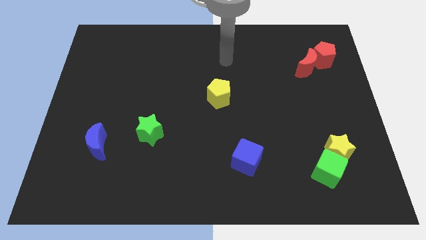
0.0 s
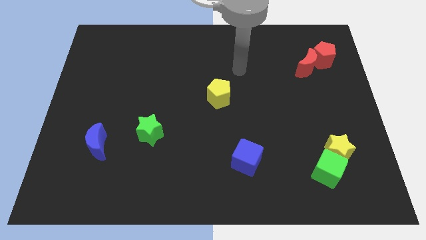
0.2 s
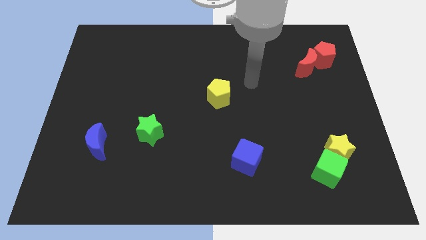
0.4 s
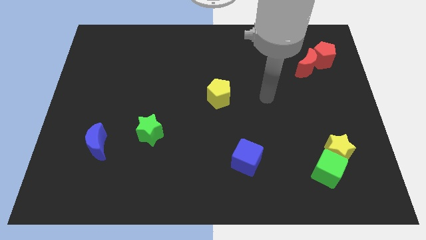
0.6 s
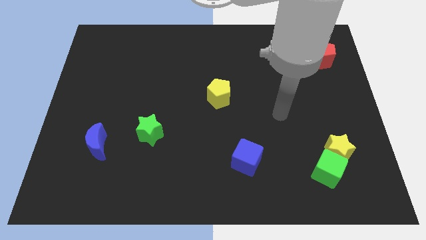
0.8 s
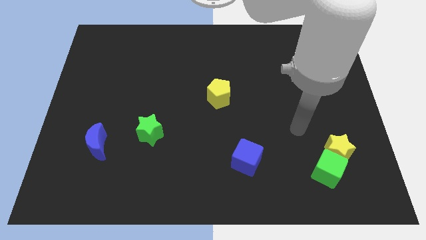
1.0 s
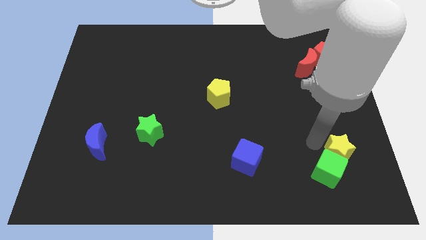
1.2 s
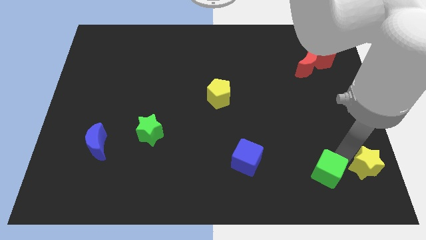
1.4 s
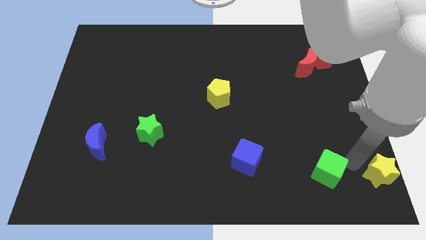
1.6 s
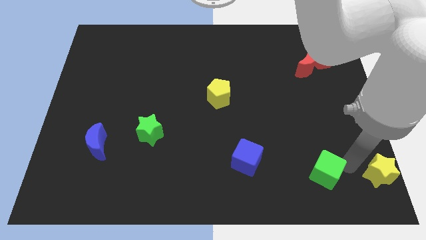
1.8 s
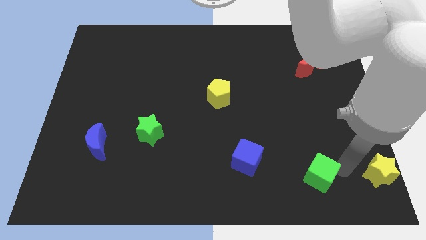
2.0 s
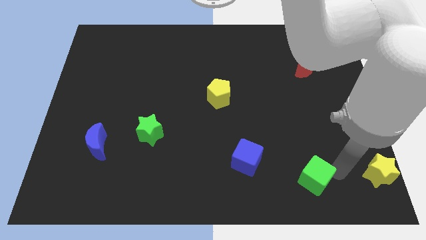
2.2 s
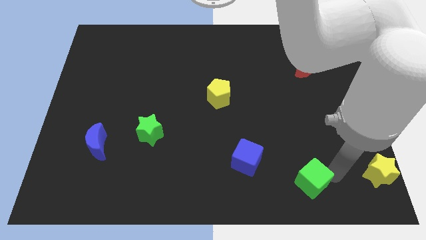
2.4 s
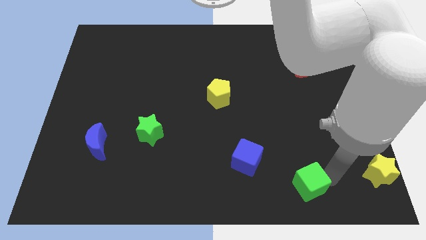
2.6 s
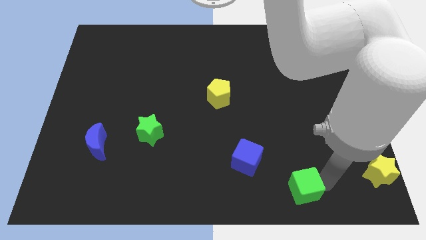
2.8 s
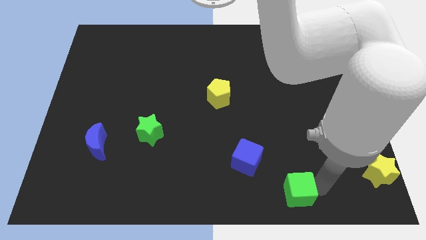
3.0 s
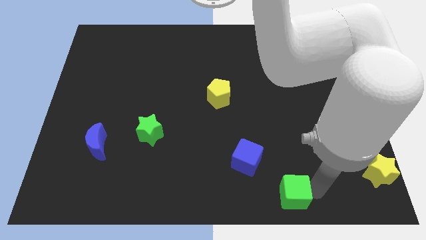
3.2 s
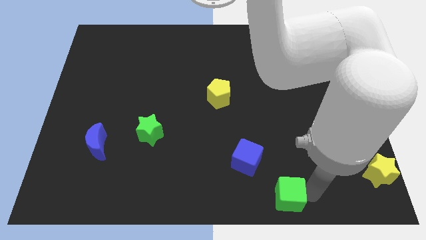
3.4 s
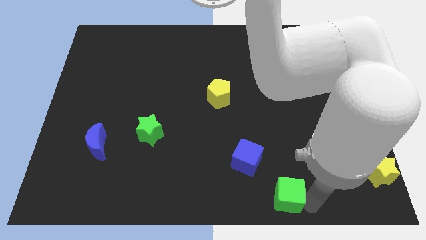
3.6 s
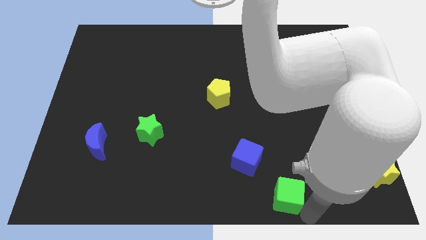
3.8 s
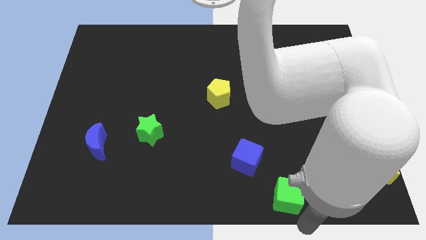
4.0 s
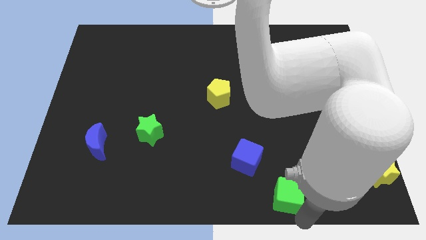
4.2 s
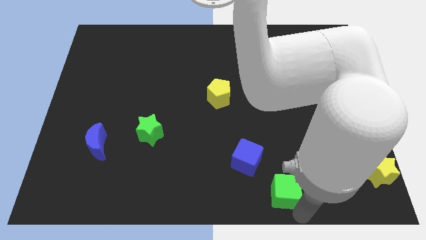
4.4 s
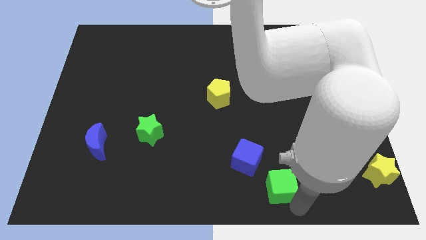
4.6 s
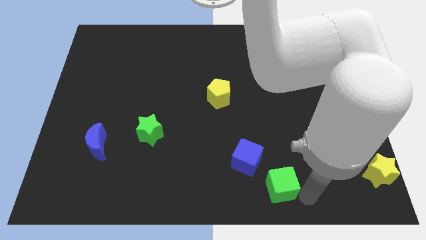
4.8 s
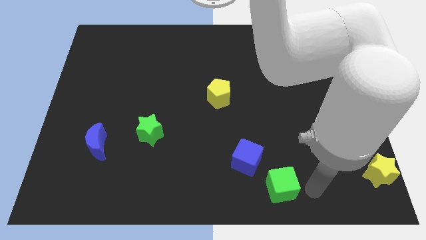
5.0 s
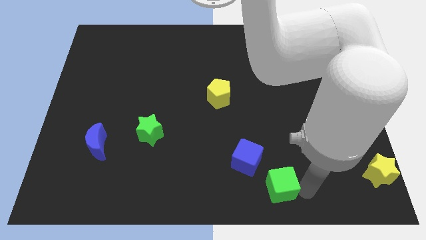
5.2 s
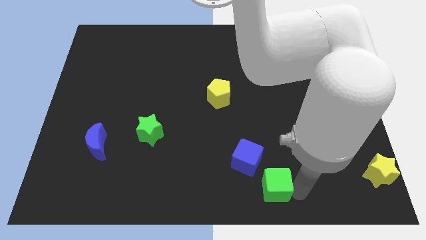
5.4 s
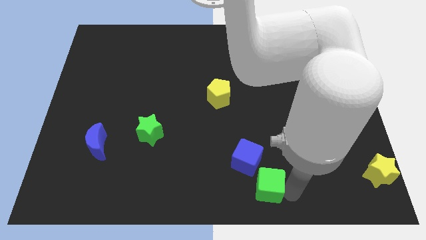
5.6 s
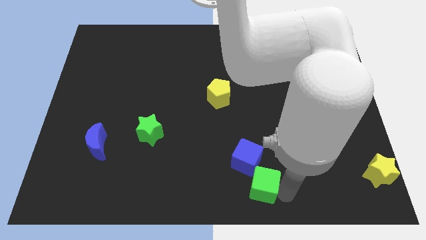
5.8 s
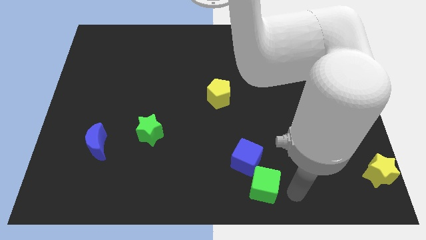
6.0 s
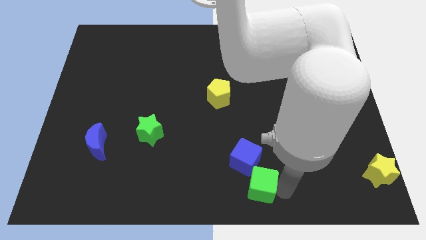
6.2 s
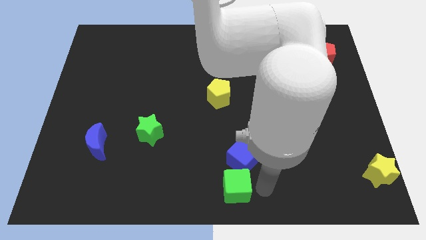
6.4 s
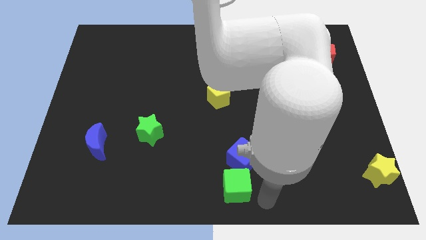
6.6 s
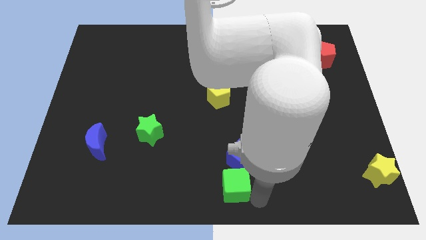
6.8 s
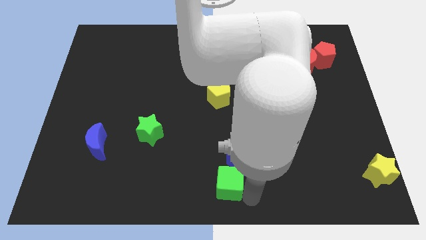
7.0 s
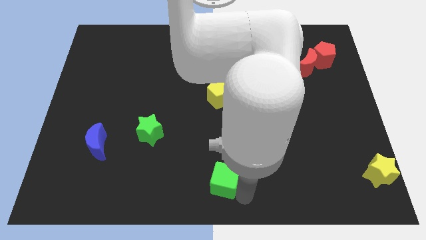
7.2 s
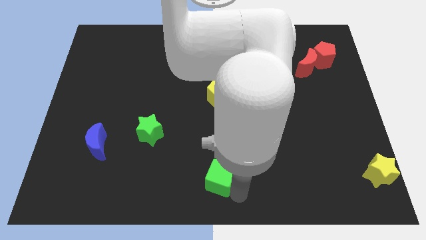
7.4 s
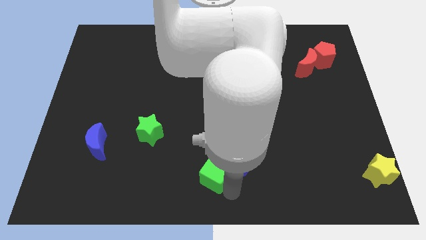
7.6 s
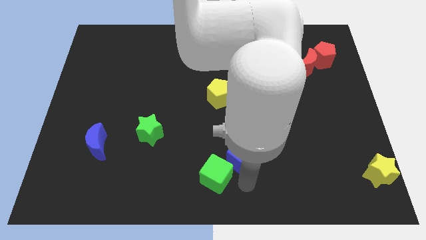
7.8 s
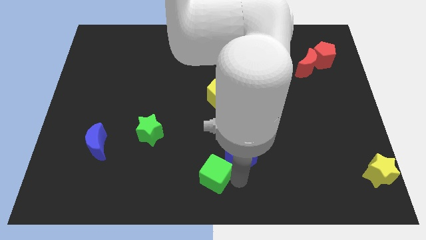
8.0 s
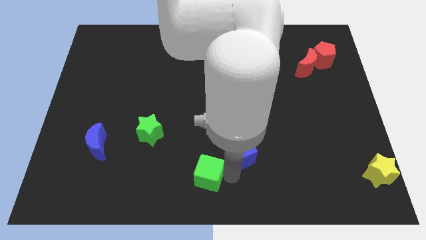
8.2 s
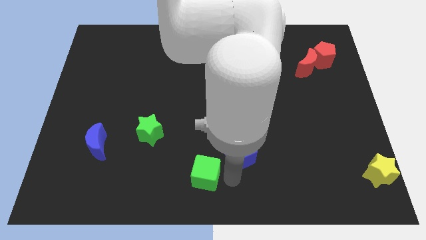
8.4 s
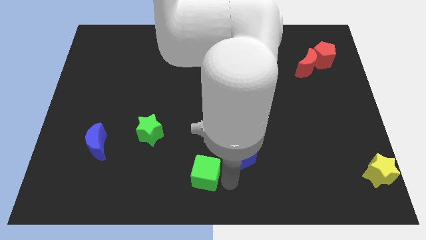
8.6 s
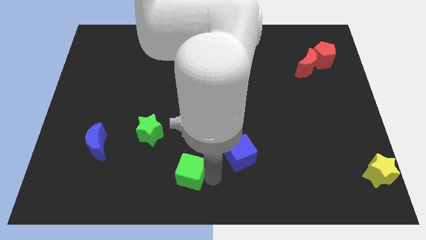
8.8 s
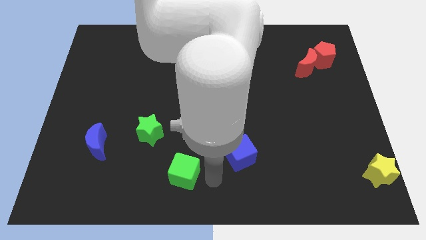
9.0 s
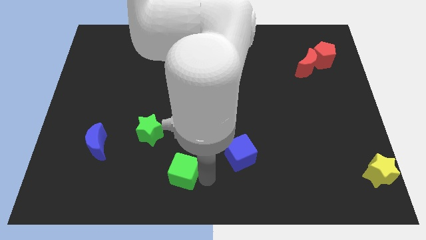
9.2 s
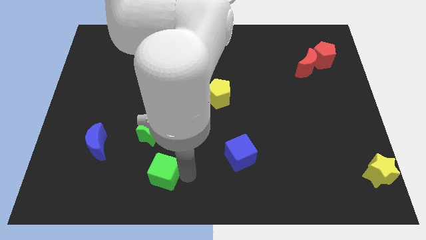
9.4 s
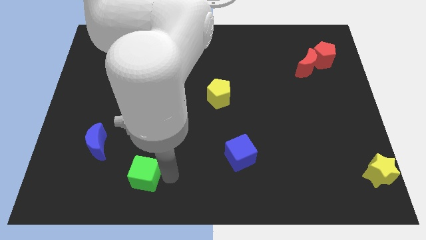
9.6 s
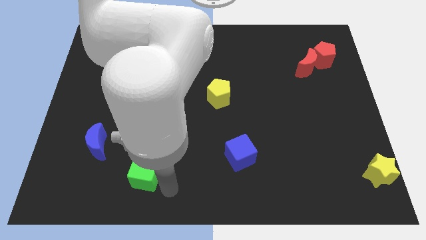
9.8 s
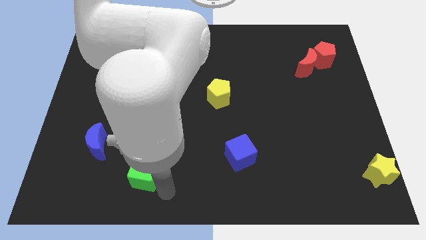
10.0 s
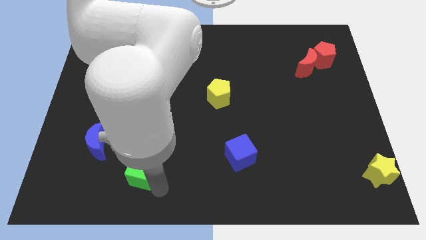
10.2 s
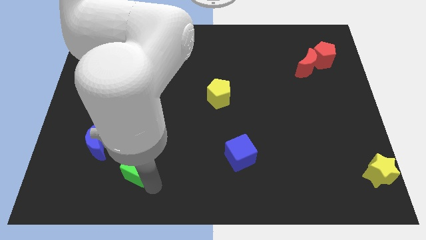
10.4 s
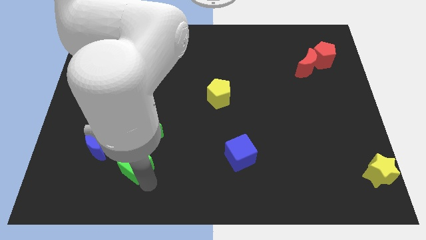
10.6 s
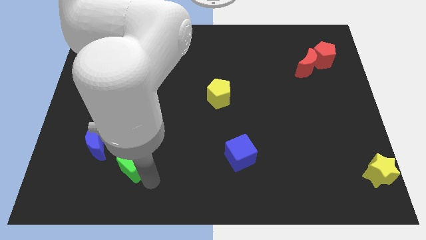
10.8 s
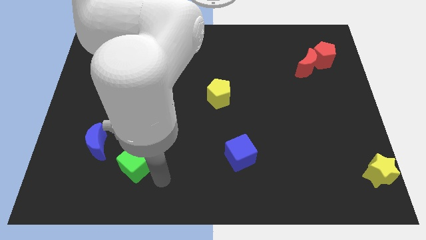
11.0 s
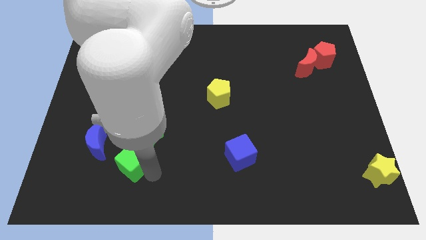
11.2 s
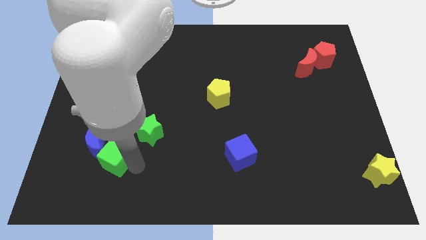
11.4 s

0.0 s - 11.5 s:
slide the green cube to the blue moon

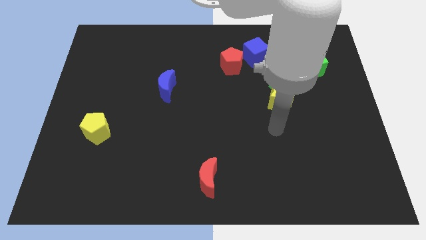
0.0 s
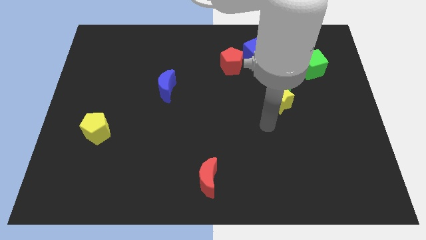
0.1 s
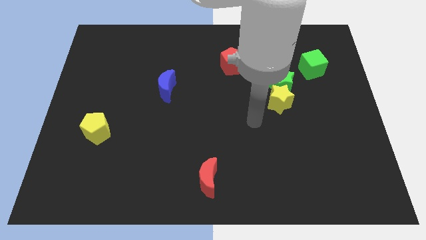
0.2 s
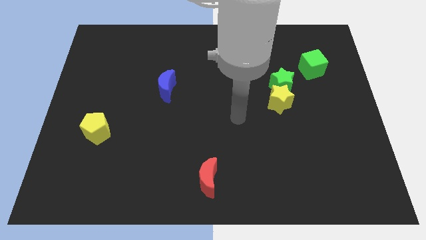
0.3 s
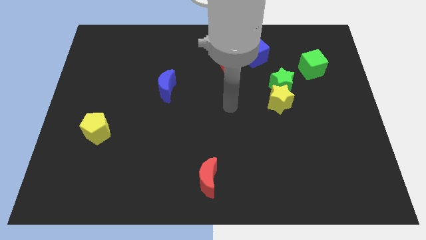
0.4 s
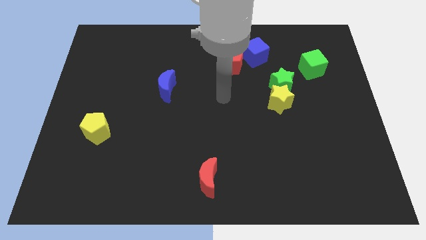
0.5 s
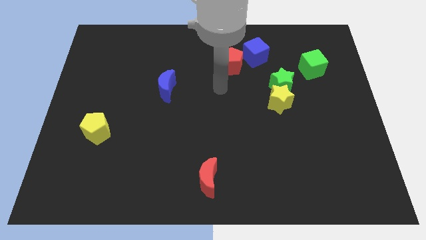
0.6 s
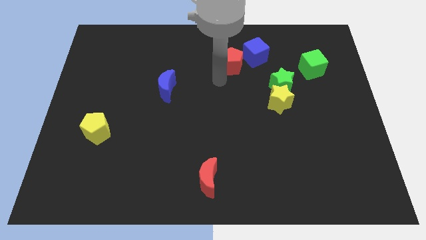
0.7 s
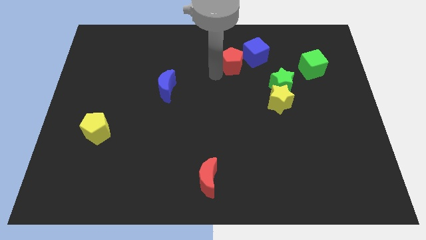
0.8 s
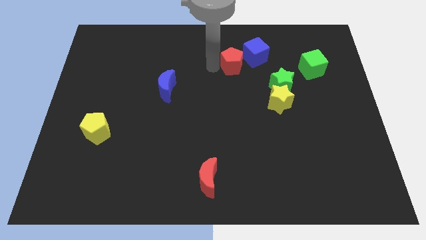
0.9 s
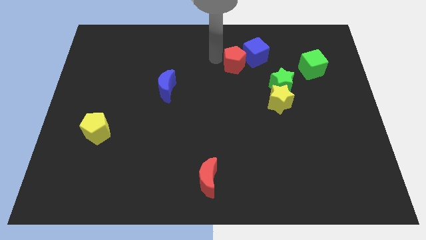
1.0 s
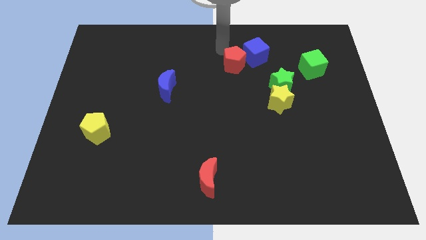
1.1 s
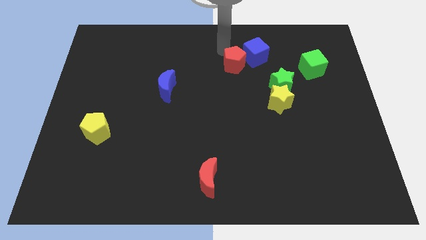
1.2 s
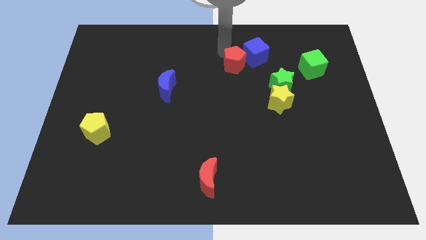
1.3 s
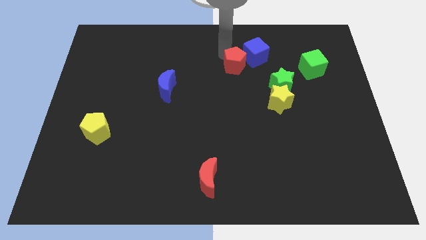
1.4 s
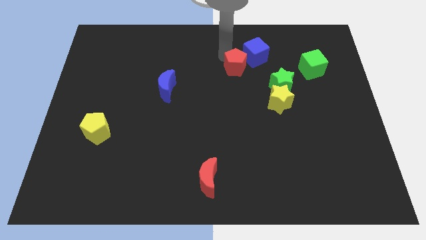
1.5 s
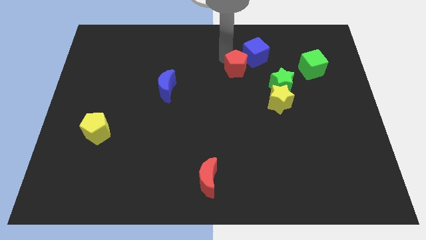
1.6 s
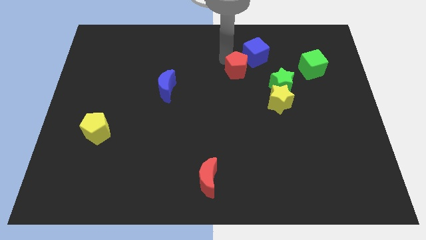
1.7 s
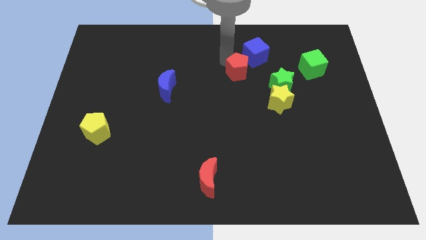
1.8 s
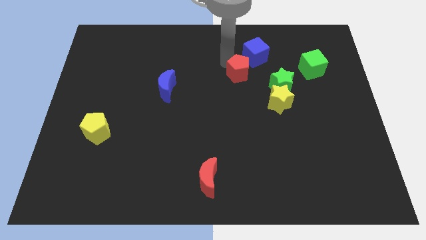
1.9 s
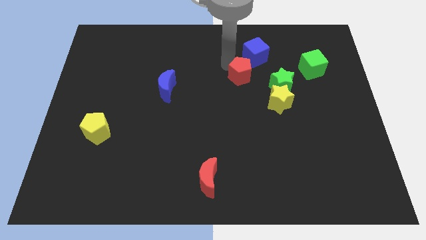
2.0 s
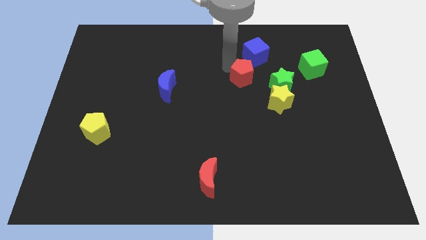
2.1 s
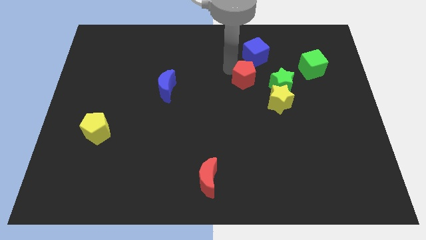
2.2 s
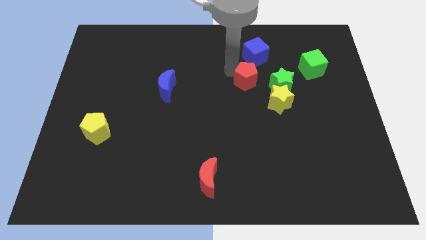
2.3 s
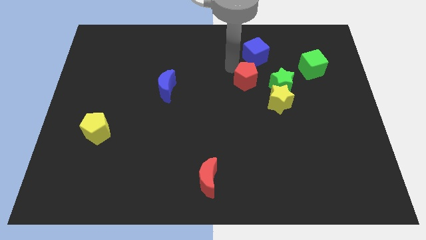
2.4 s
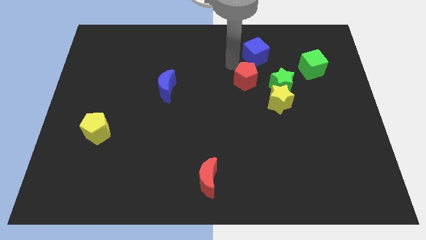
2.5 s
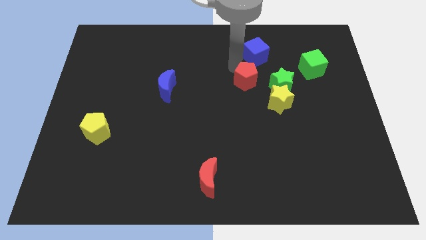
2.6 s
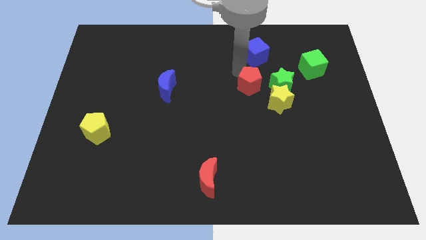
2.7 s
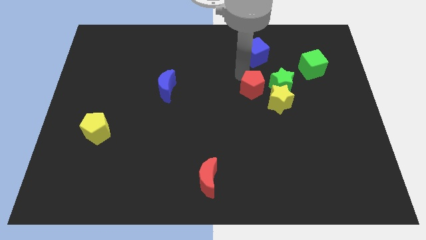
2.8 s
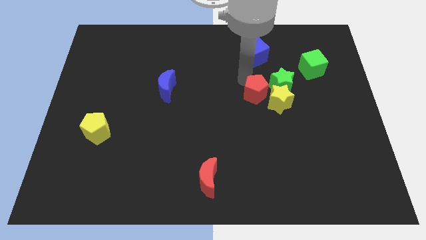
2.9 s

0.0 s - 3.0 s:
push the red pentagon towards the yellow star
